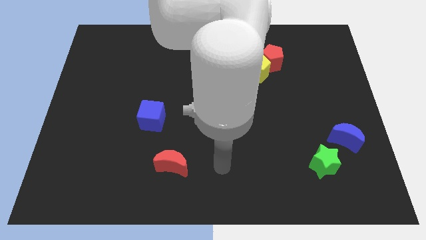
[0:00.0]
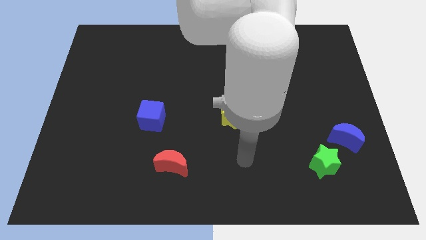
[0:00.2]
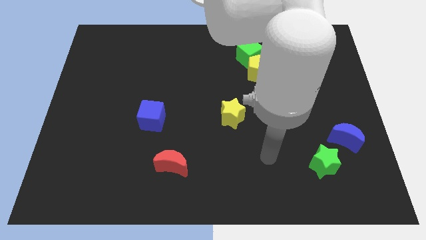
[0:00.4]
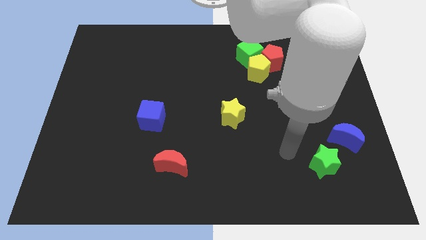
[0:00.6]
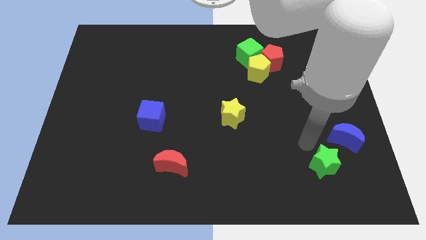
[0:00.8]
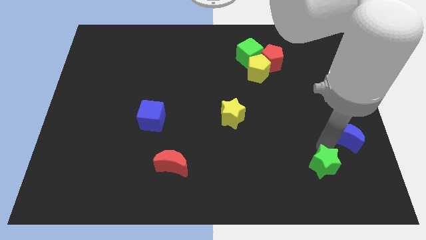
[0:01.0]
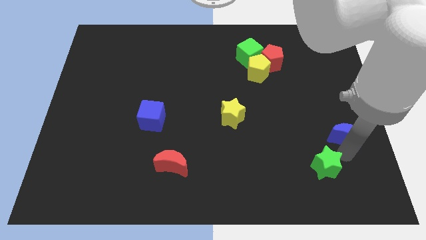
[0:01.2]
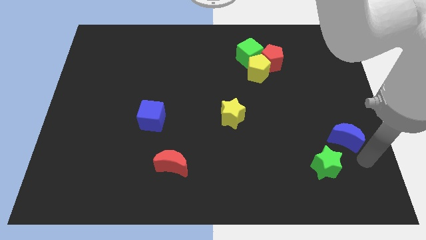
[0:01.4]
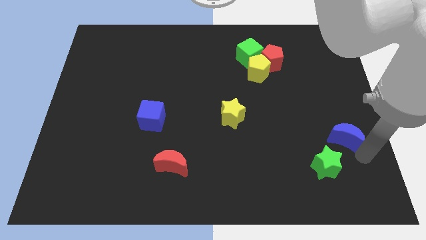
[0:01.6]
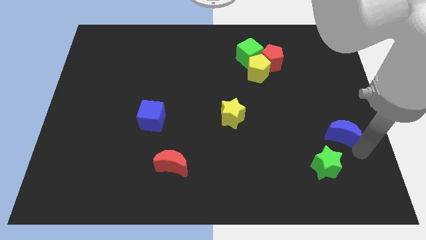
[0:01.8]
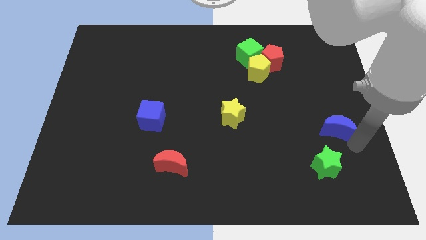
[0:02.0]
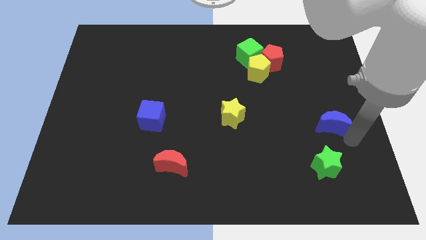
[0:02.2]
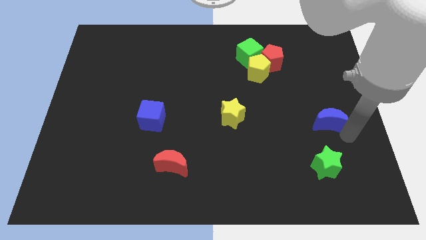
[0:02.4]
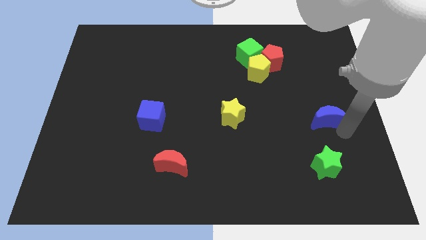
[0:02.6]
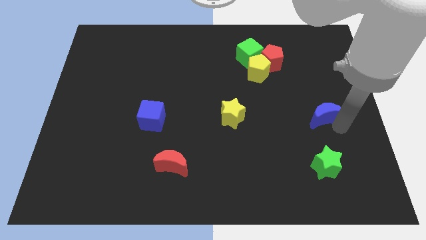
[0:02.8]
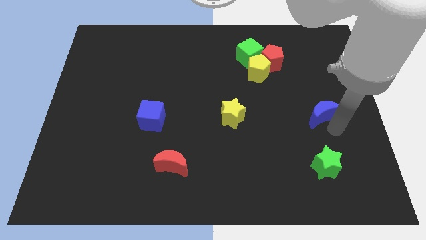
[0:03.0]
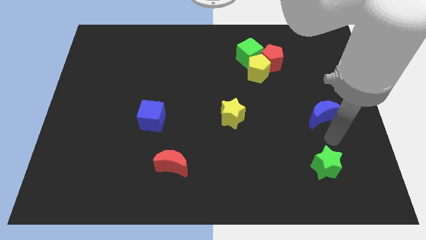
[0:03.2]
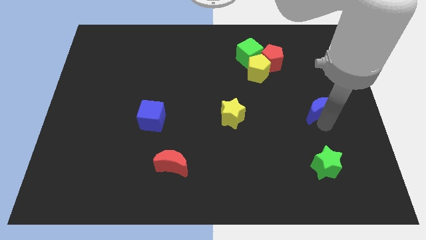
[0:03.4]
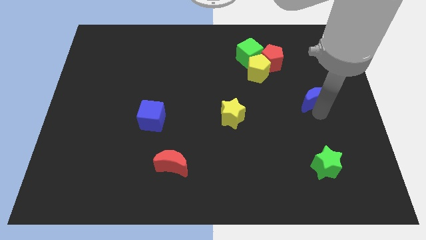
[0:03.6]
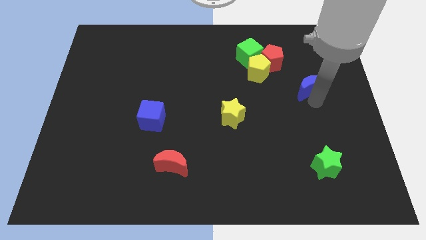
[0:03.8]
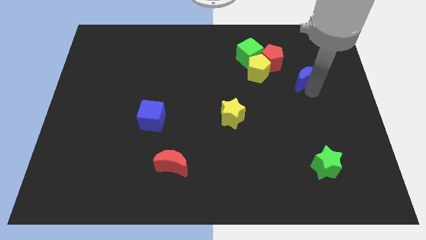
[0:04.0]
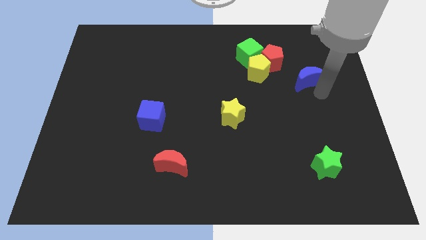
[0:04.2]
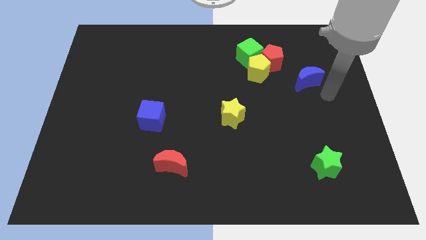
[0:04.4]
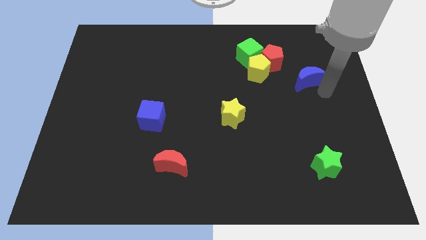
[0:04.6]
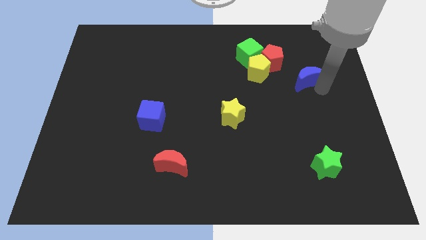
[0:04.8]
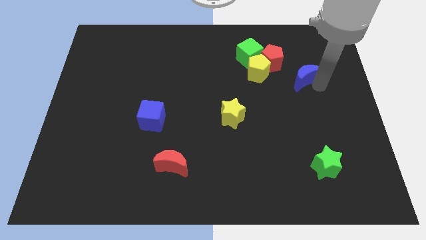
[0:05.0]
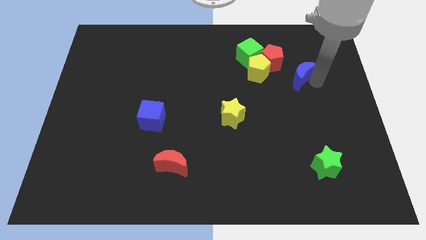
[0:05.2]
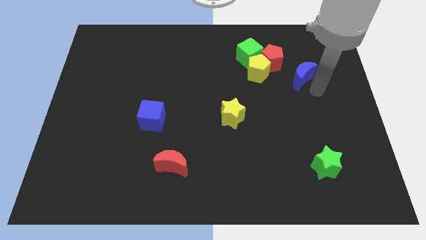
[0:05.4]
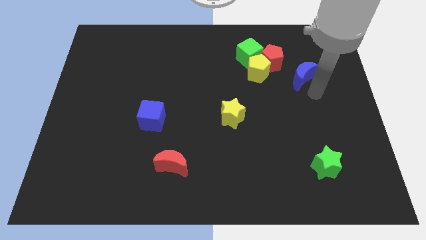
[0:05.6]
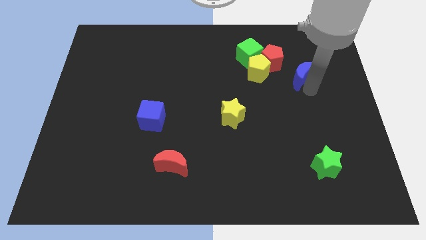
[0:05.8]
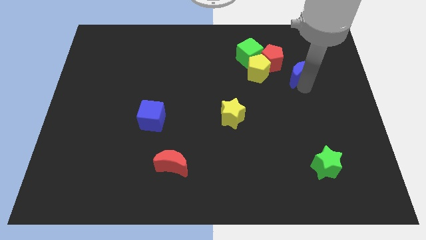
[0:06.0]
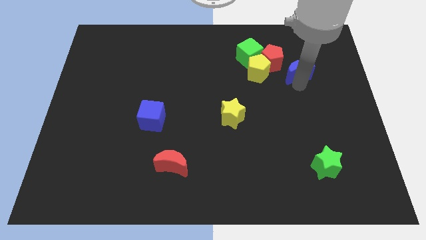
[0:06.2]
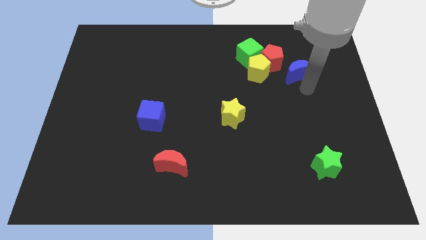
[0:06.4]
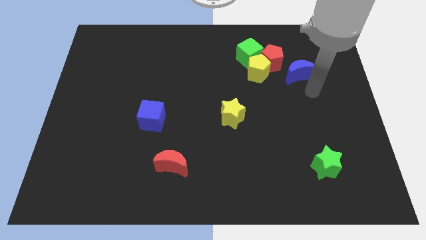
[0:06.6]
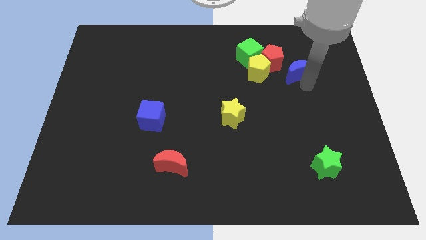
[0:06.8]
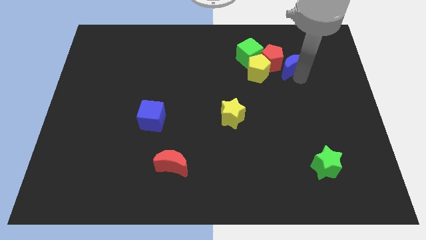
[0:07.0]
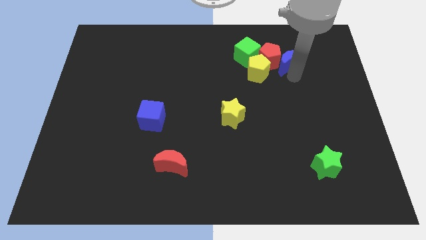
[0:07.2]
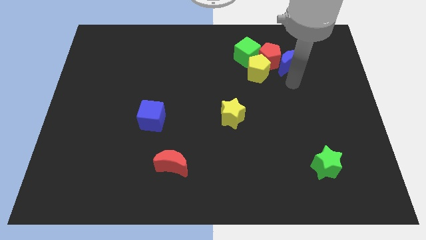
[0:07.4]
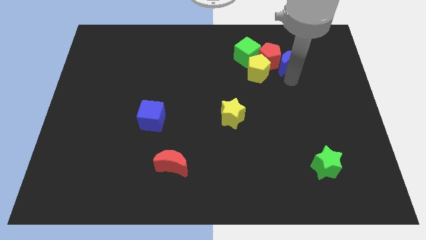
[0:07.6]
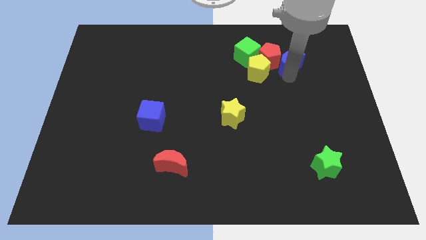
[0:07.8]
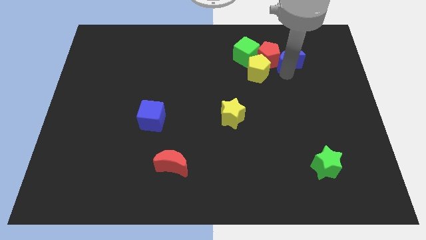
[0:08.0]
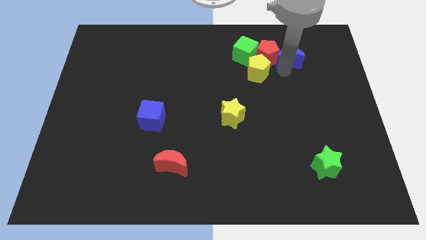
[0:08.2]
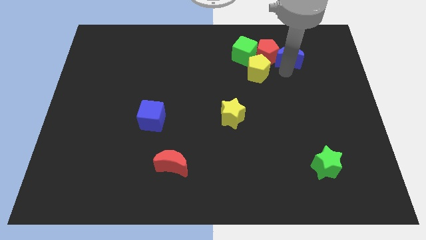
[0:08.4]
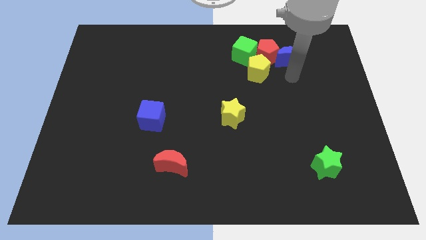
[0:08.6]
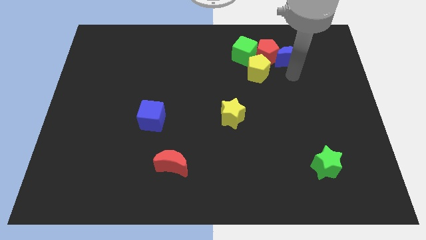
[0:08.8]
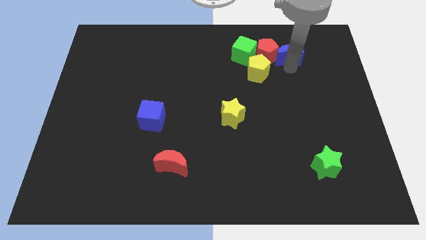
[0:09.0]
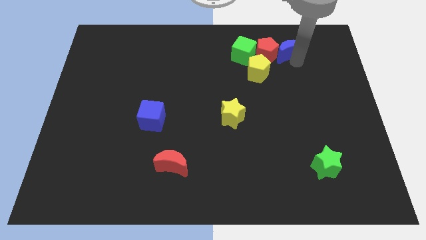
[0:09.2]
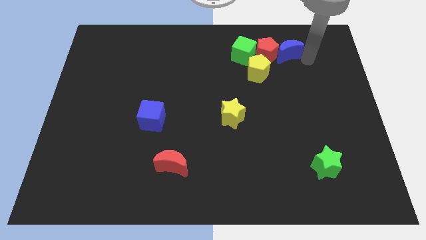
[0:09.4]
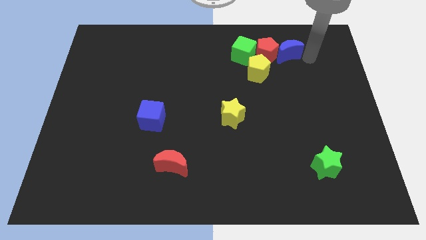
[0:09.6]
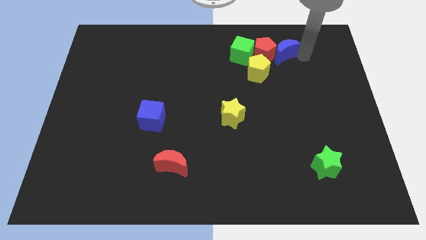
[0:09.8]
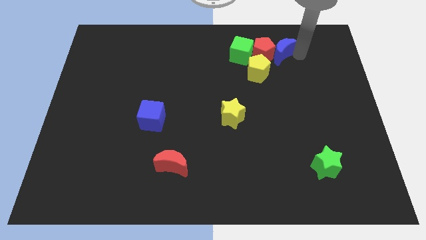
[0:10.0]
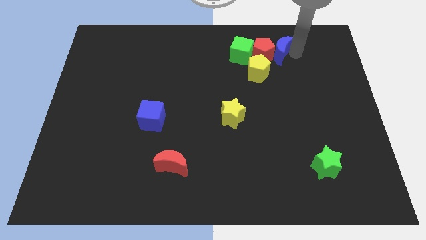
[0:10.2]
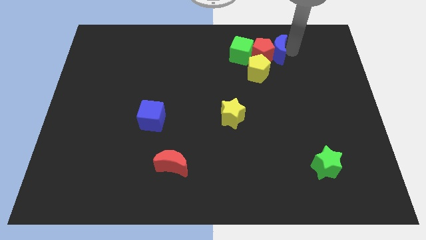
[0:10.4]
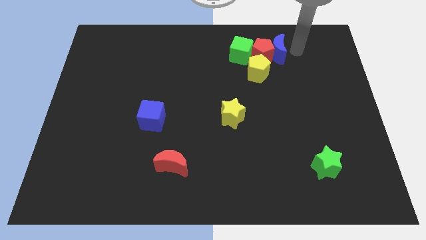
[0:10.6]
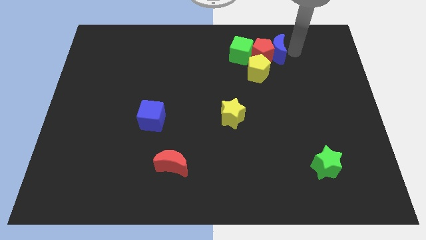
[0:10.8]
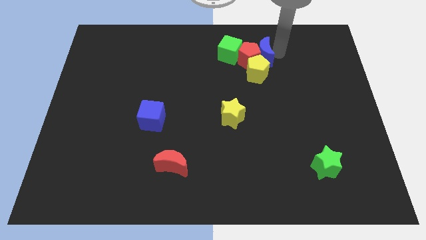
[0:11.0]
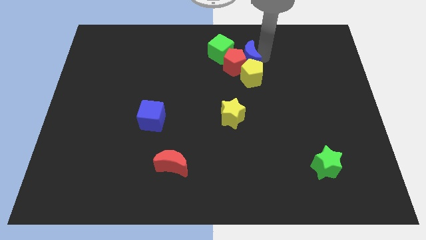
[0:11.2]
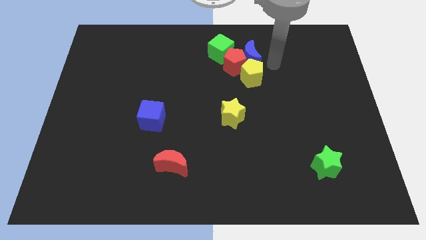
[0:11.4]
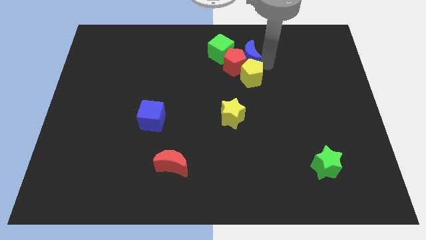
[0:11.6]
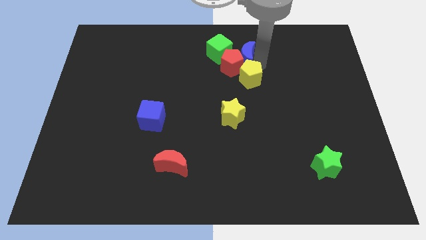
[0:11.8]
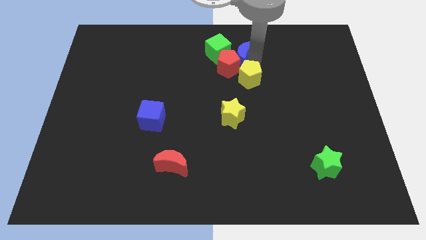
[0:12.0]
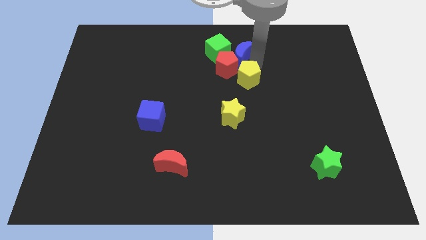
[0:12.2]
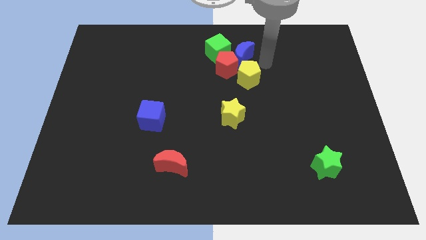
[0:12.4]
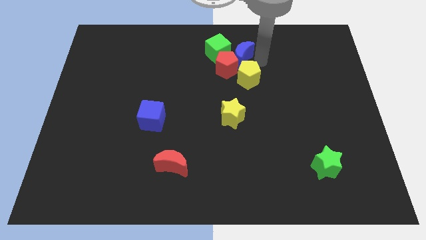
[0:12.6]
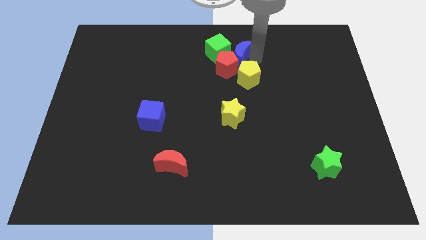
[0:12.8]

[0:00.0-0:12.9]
push the blue moon next to the green cube

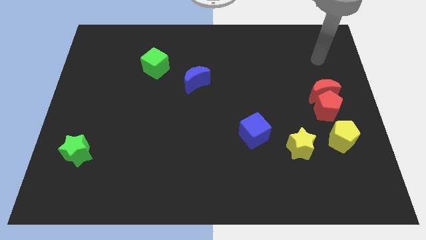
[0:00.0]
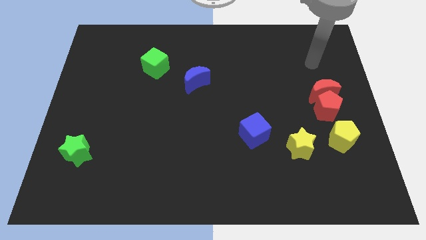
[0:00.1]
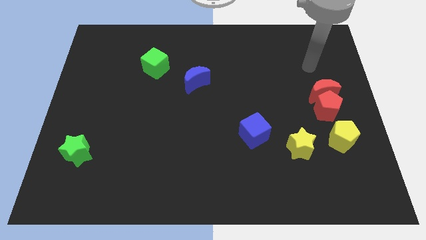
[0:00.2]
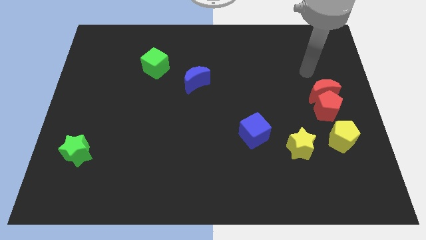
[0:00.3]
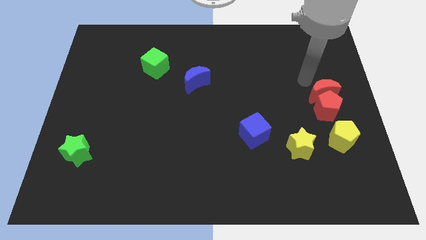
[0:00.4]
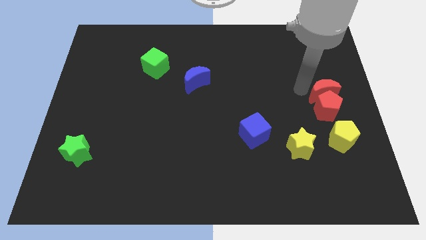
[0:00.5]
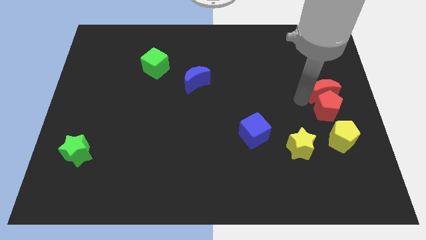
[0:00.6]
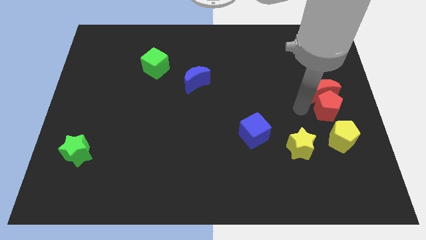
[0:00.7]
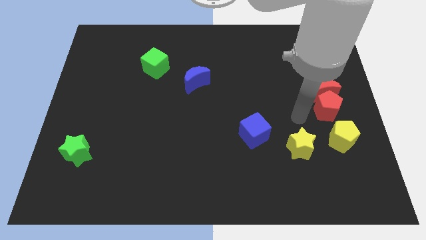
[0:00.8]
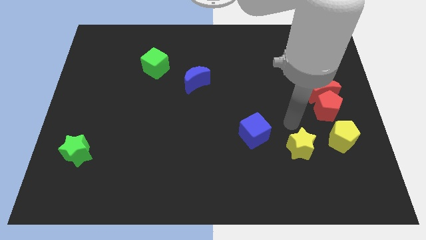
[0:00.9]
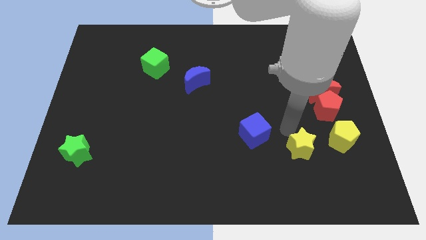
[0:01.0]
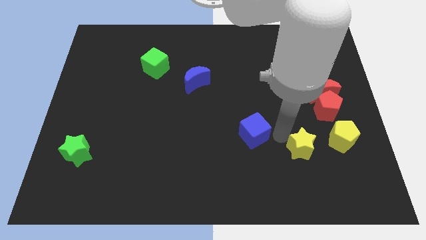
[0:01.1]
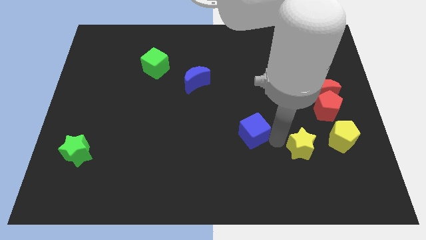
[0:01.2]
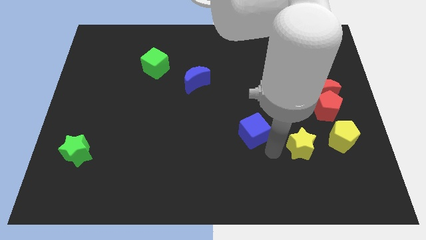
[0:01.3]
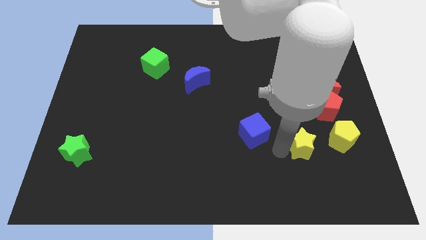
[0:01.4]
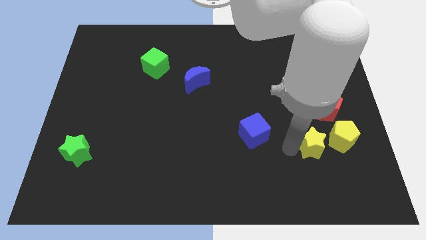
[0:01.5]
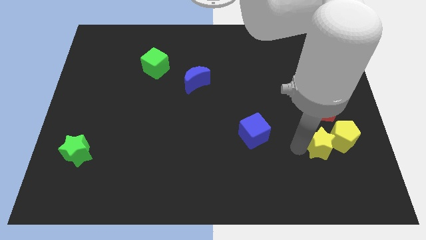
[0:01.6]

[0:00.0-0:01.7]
put the yellow star towards the yellow pentagon
